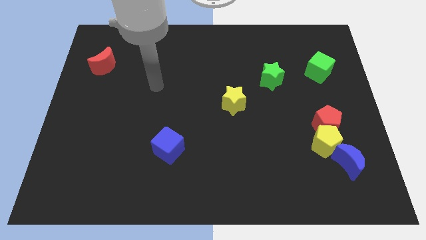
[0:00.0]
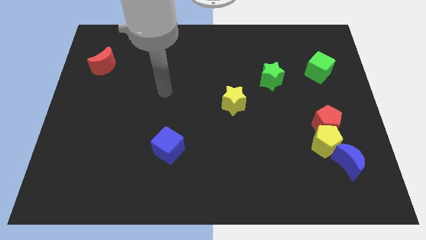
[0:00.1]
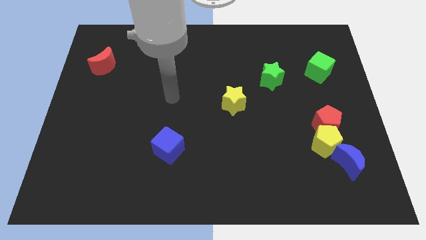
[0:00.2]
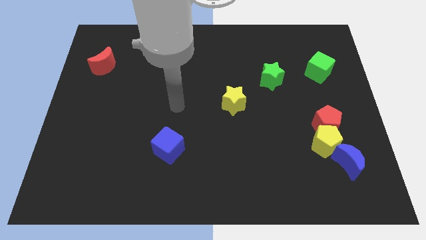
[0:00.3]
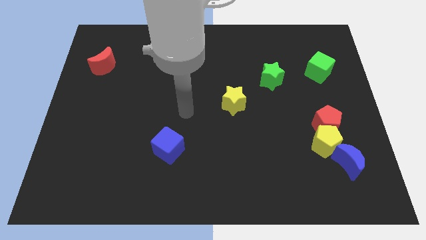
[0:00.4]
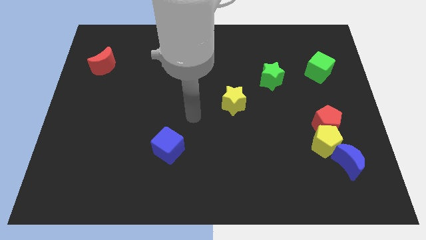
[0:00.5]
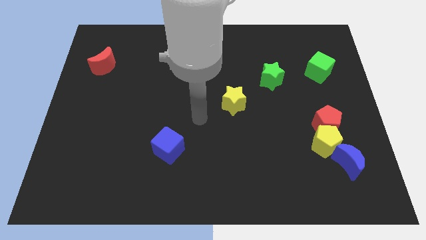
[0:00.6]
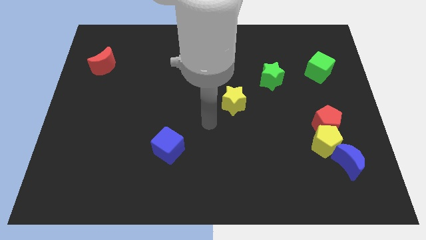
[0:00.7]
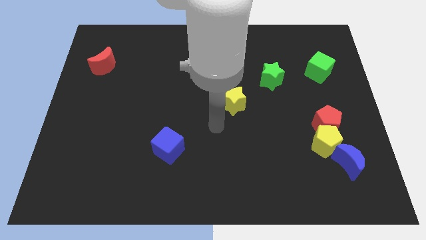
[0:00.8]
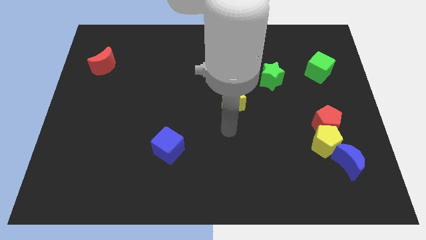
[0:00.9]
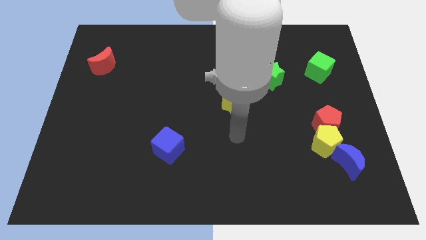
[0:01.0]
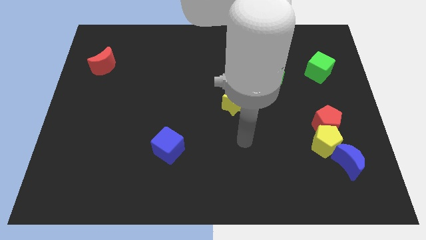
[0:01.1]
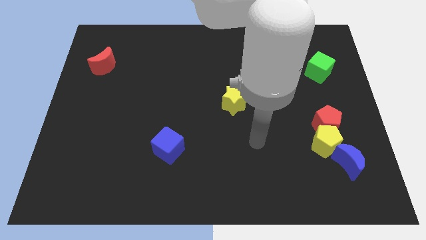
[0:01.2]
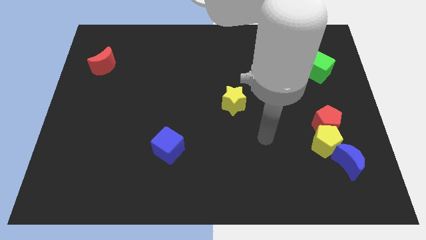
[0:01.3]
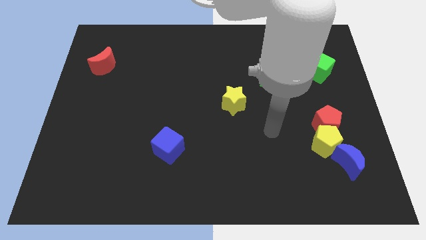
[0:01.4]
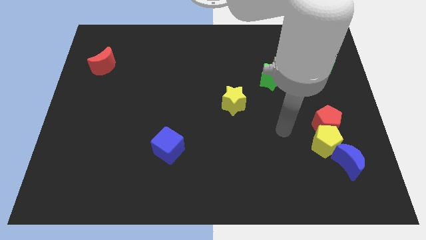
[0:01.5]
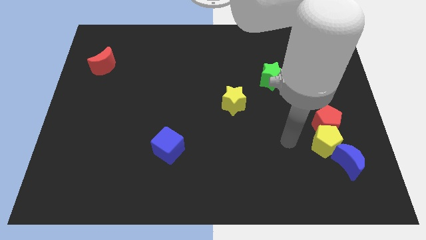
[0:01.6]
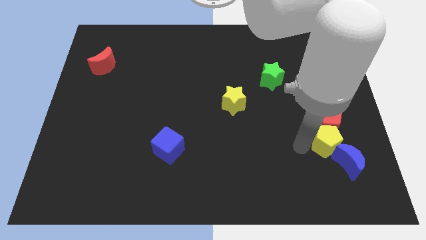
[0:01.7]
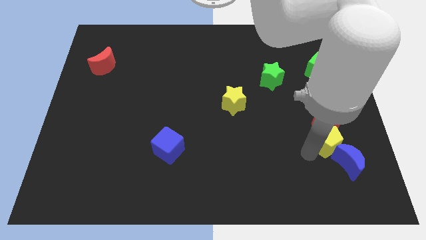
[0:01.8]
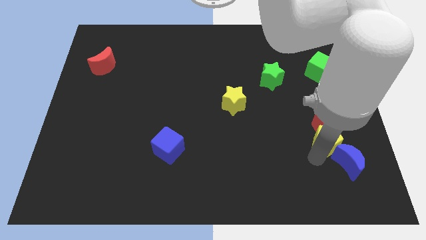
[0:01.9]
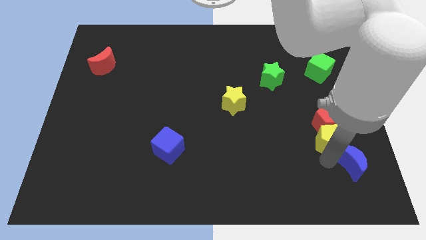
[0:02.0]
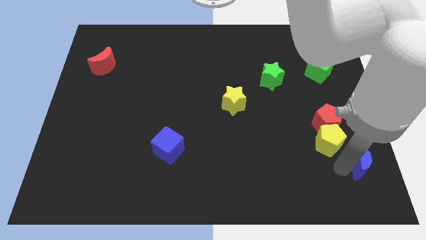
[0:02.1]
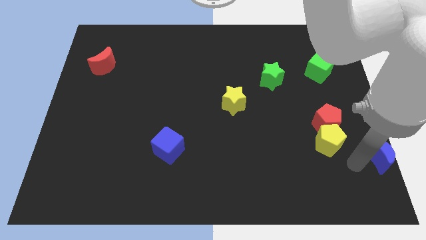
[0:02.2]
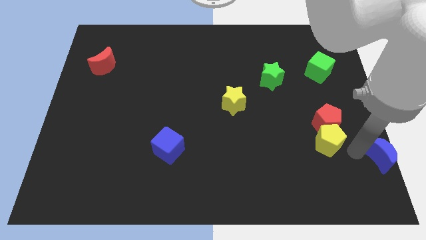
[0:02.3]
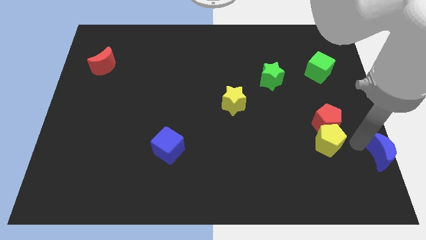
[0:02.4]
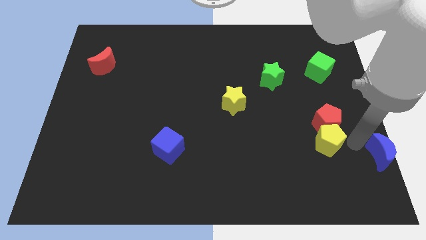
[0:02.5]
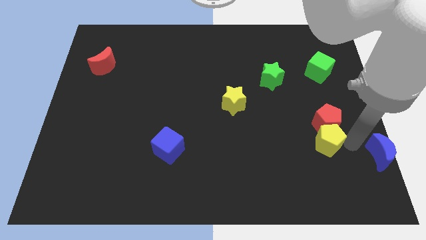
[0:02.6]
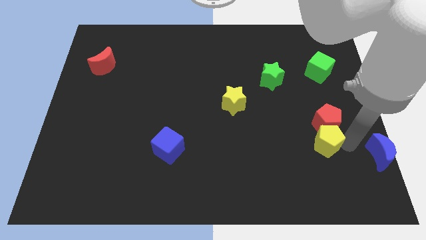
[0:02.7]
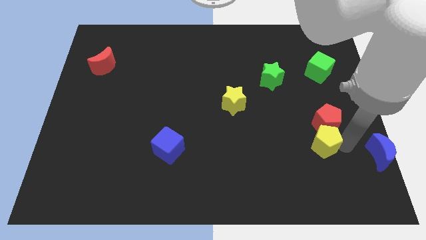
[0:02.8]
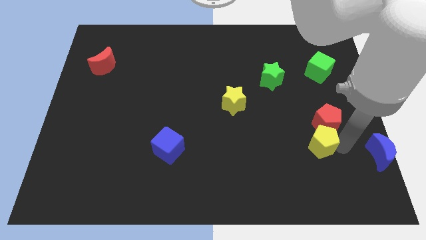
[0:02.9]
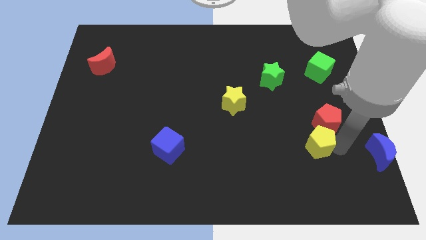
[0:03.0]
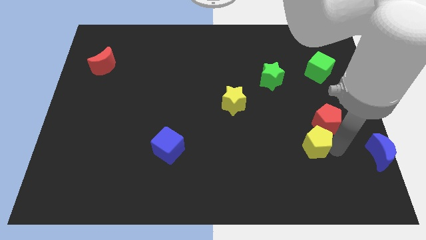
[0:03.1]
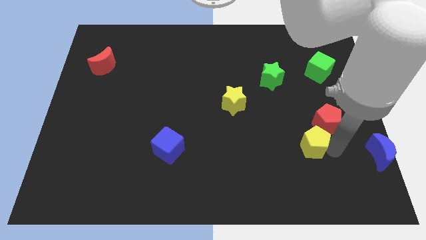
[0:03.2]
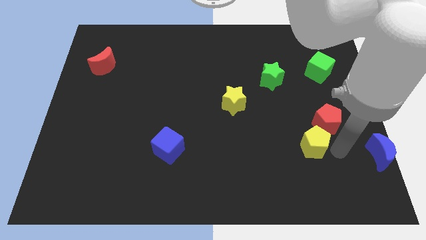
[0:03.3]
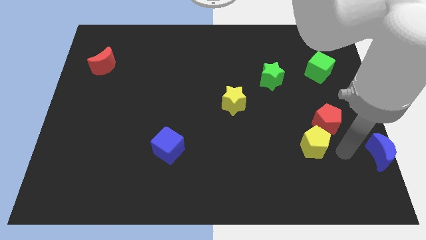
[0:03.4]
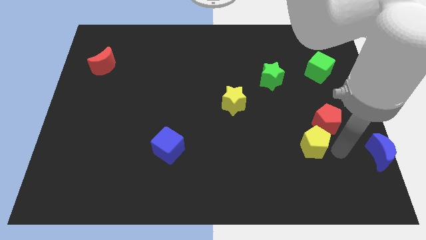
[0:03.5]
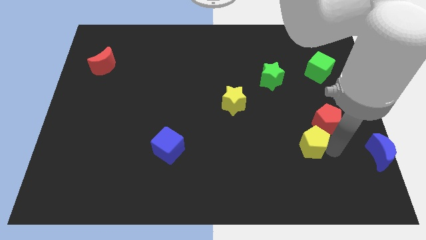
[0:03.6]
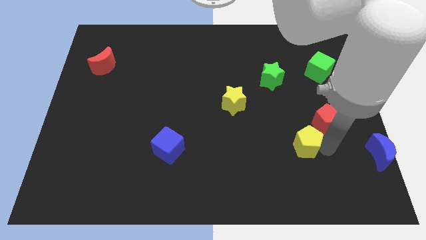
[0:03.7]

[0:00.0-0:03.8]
pull the yellow pentagon apart from the red pentagon and blue moon

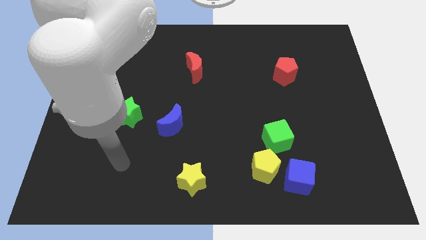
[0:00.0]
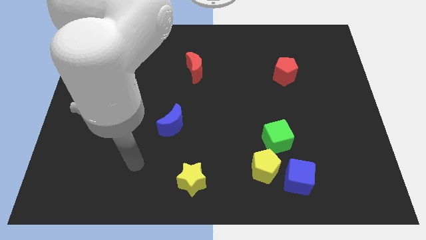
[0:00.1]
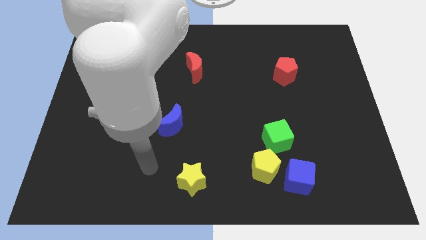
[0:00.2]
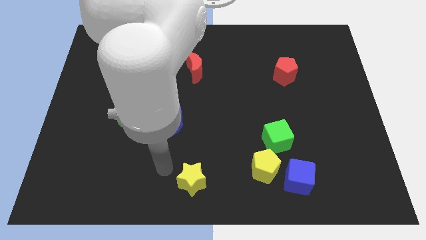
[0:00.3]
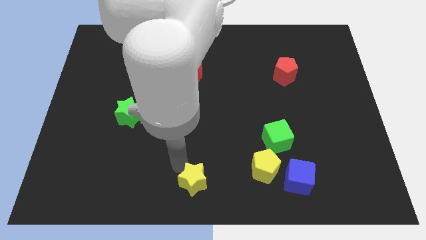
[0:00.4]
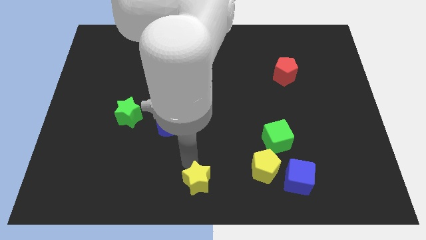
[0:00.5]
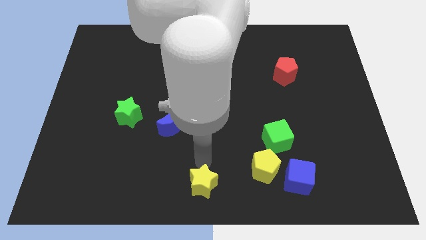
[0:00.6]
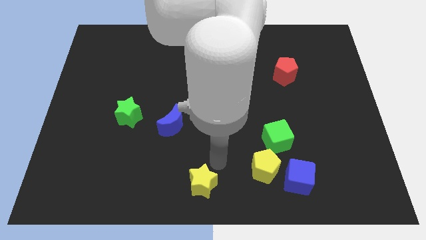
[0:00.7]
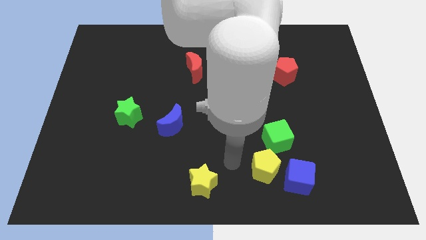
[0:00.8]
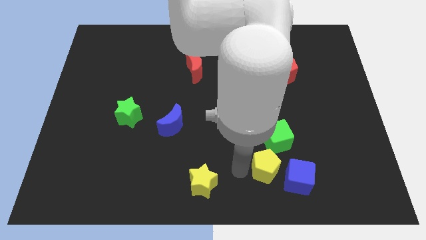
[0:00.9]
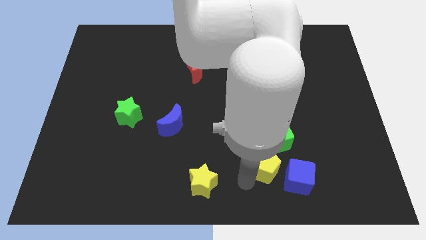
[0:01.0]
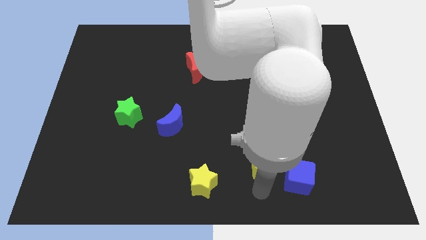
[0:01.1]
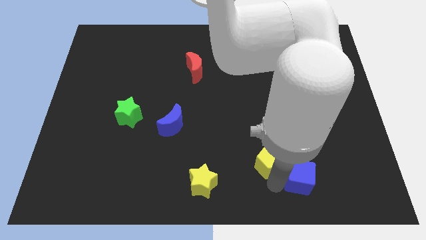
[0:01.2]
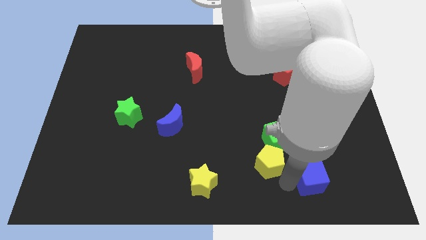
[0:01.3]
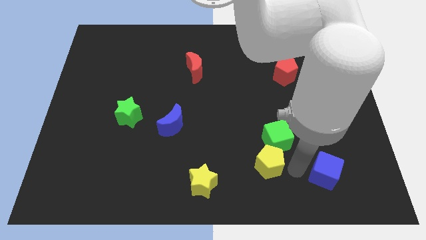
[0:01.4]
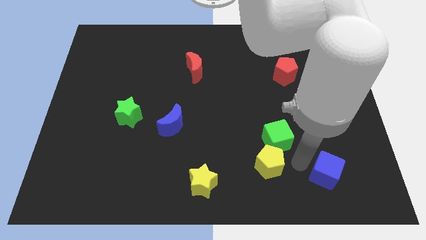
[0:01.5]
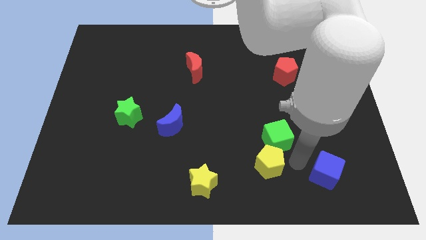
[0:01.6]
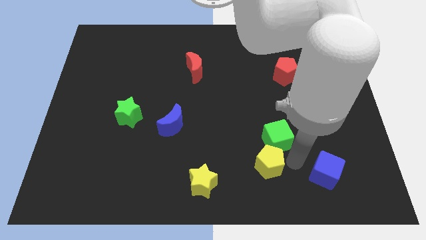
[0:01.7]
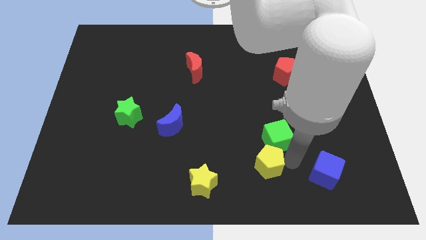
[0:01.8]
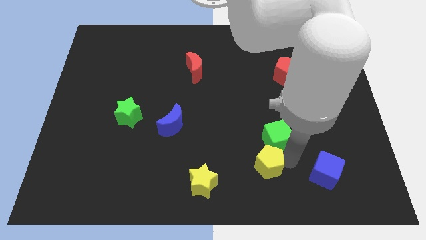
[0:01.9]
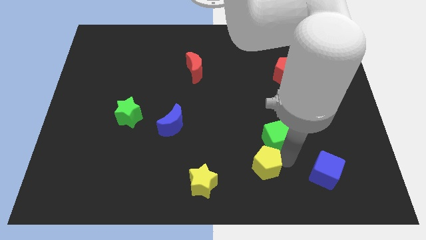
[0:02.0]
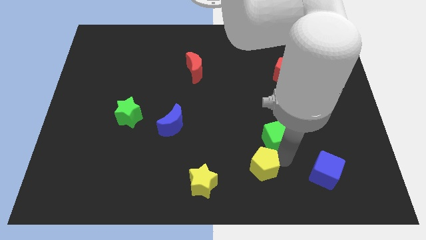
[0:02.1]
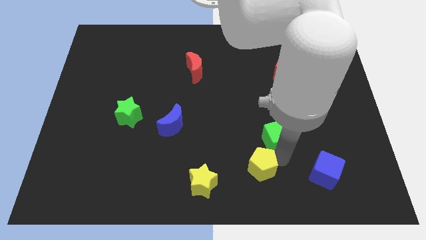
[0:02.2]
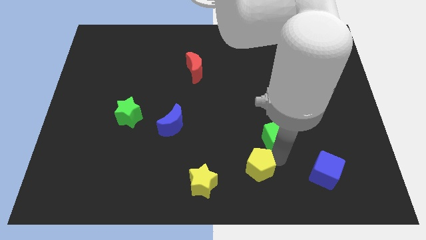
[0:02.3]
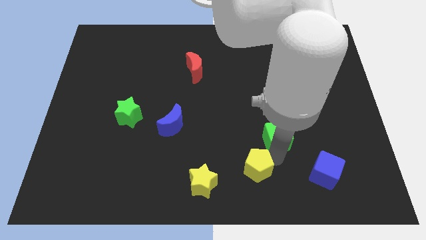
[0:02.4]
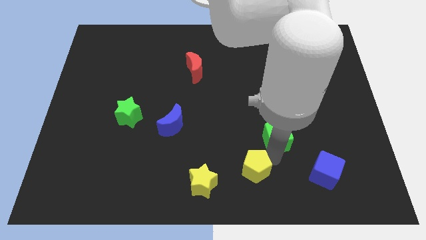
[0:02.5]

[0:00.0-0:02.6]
pull the yellow pentagon apart from the blue cube and green cube

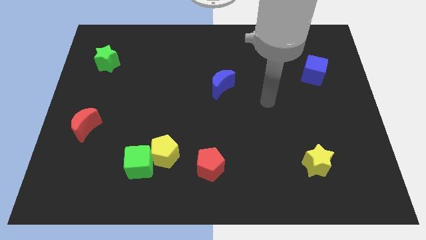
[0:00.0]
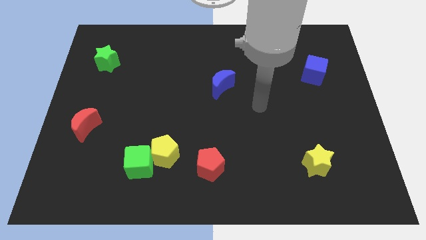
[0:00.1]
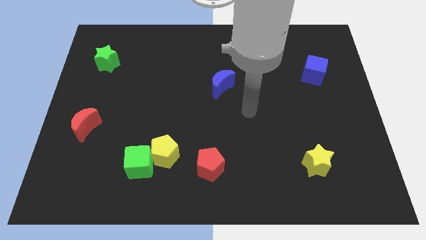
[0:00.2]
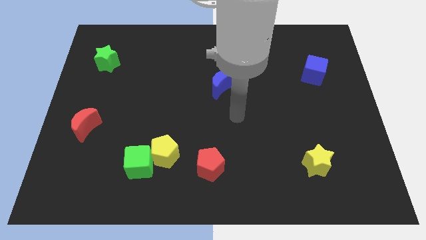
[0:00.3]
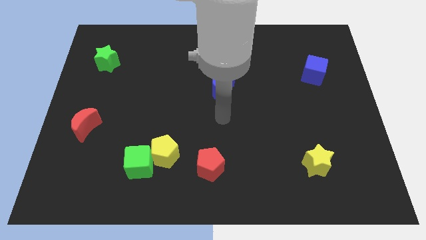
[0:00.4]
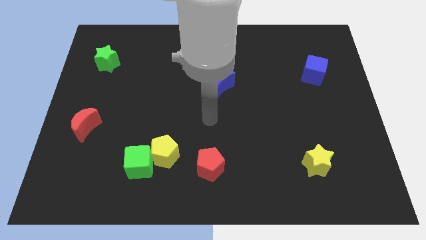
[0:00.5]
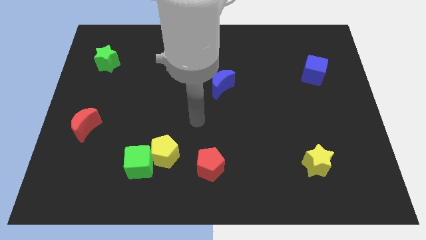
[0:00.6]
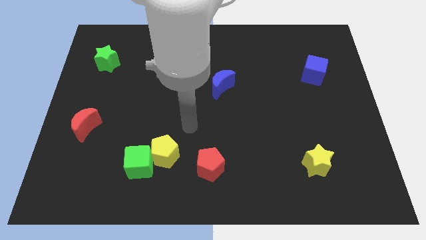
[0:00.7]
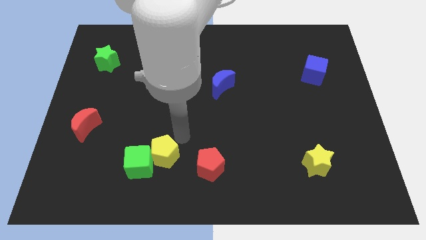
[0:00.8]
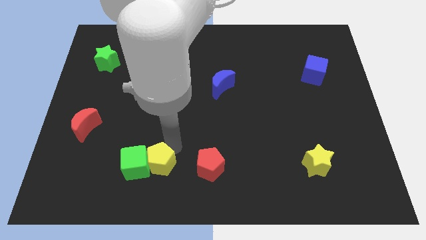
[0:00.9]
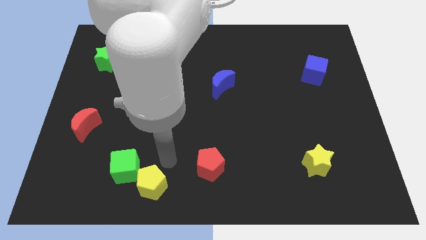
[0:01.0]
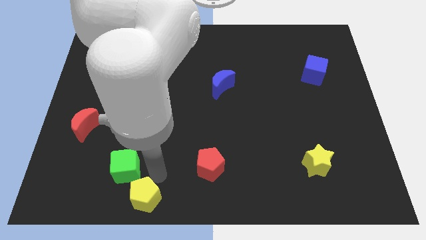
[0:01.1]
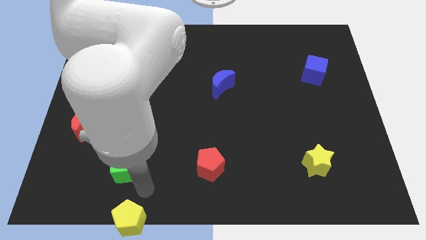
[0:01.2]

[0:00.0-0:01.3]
pull the green cube apart from the yellow pentagon

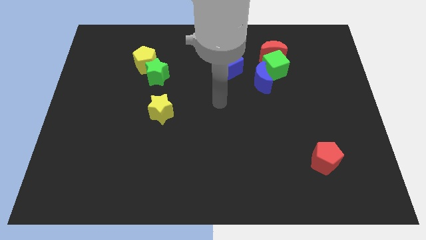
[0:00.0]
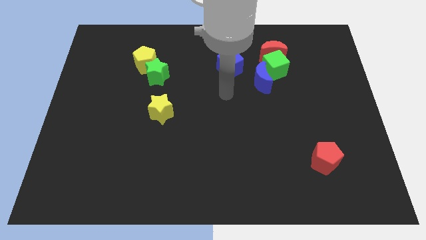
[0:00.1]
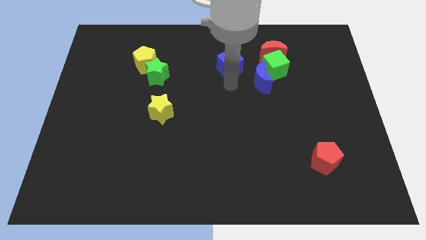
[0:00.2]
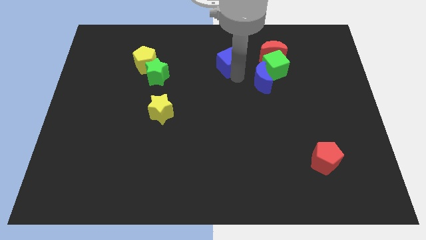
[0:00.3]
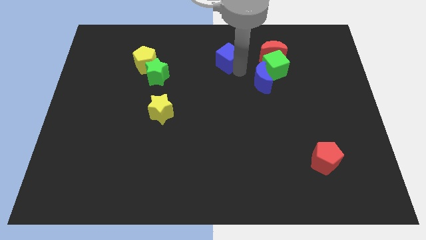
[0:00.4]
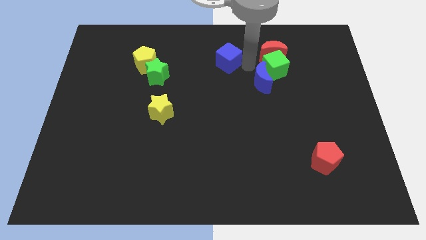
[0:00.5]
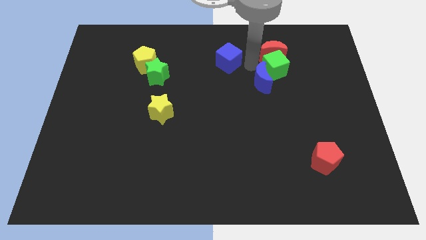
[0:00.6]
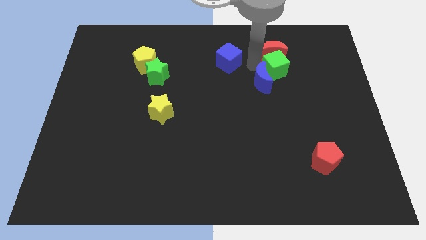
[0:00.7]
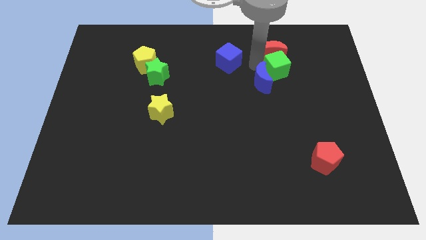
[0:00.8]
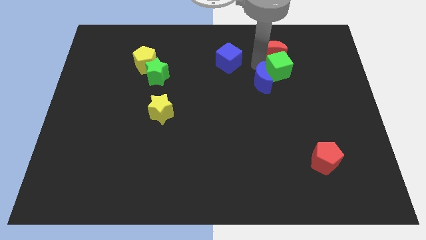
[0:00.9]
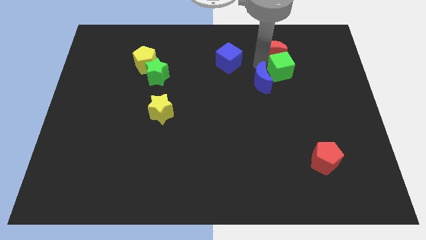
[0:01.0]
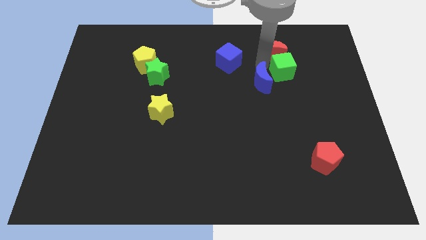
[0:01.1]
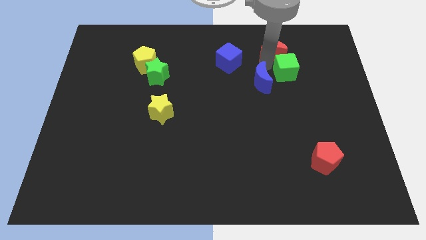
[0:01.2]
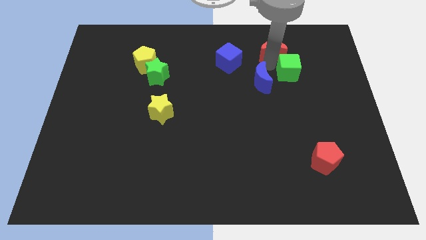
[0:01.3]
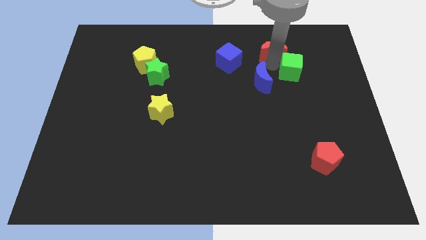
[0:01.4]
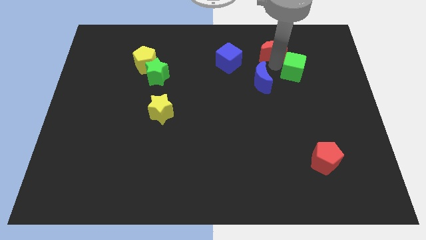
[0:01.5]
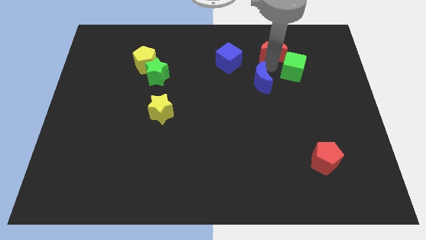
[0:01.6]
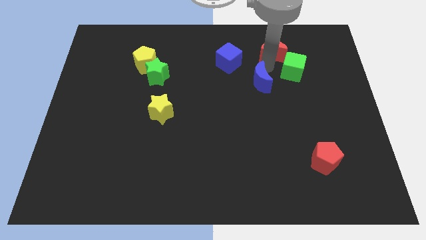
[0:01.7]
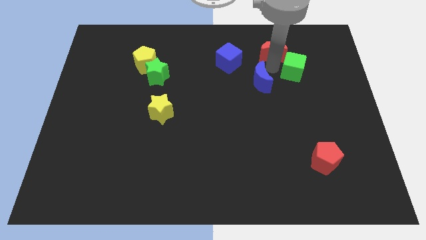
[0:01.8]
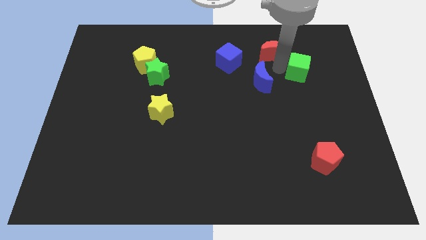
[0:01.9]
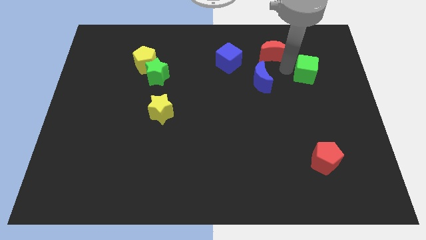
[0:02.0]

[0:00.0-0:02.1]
pull the green cube apart from the red moon and blue moon
